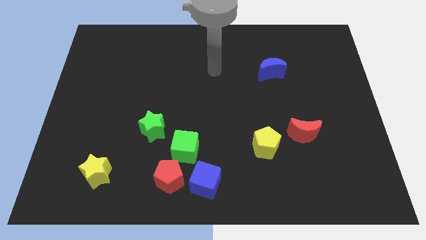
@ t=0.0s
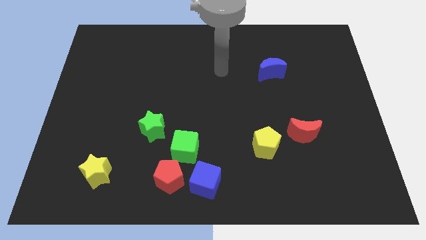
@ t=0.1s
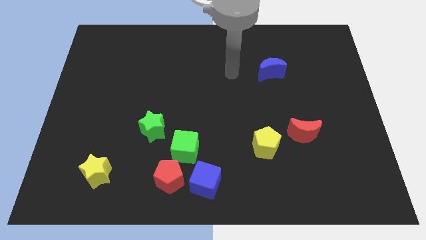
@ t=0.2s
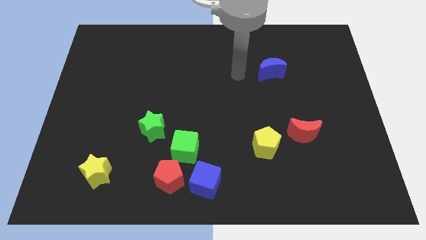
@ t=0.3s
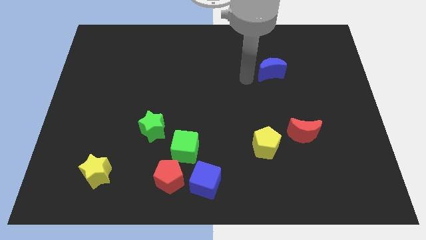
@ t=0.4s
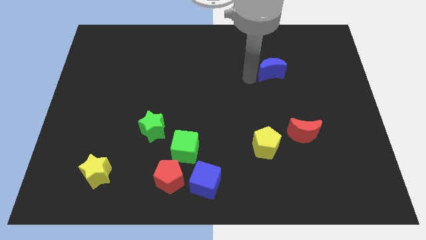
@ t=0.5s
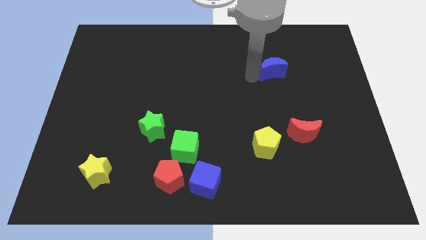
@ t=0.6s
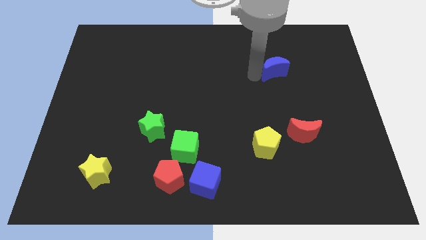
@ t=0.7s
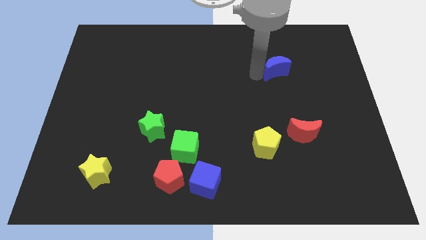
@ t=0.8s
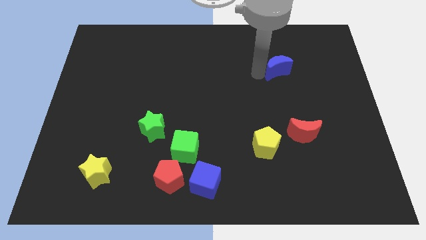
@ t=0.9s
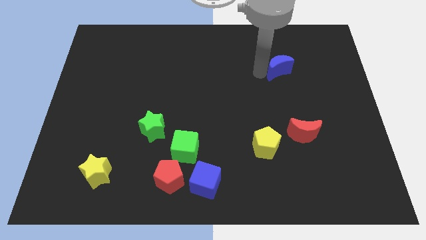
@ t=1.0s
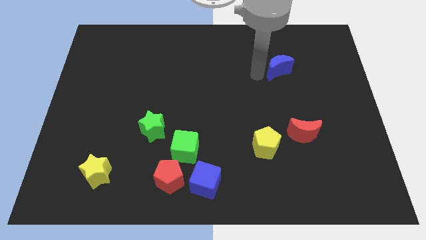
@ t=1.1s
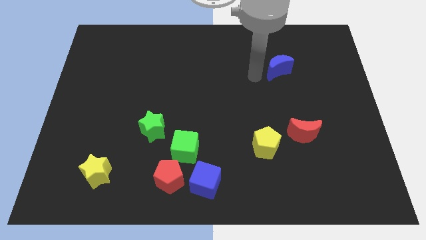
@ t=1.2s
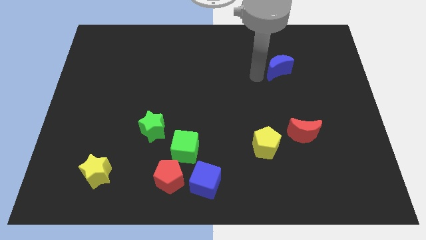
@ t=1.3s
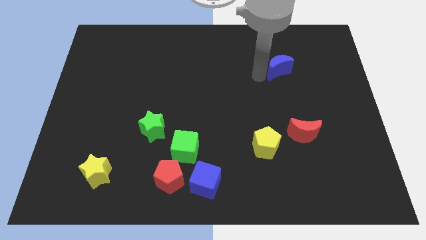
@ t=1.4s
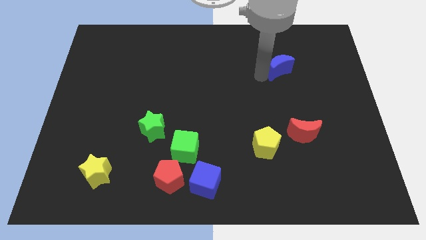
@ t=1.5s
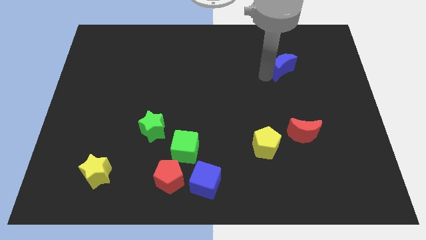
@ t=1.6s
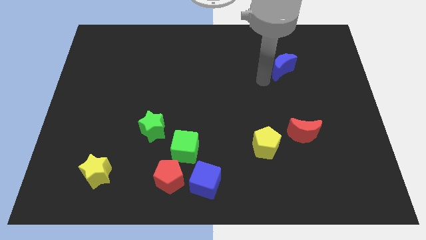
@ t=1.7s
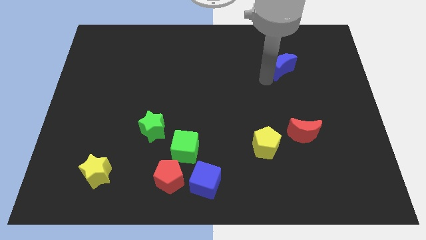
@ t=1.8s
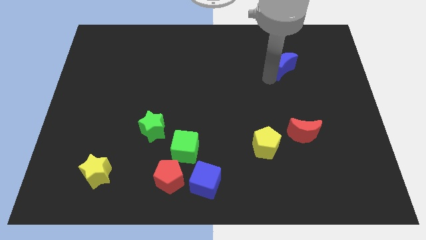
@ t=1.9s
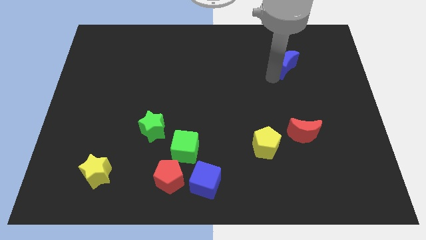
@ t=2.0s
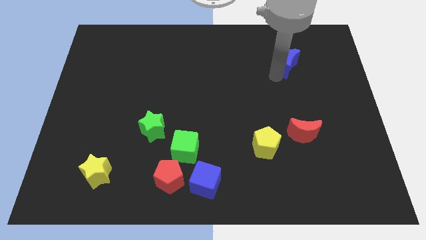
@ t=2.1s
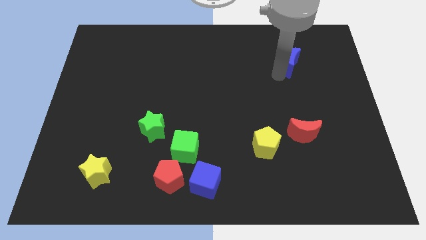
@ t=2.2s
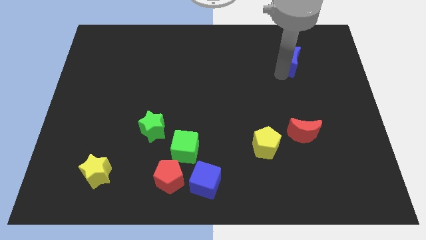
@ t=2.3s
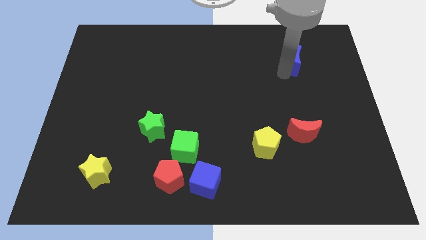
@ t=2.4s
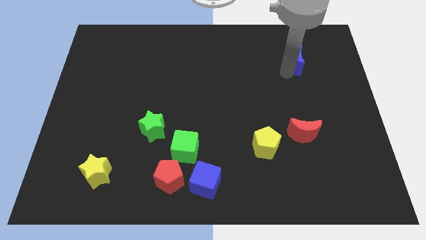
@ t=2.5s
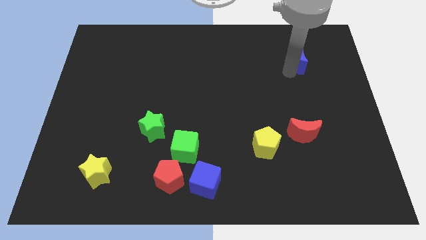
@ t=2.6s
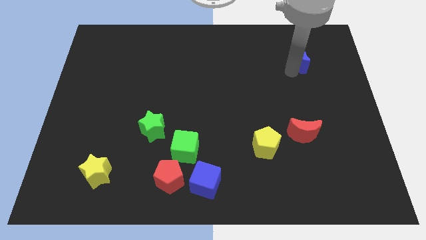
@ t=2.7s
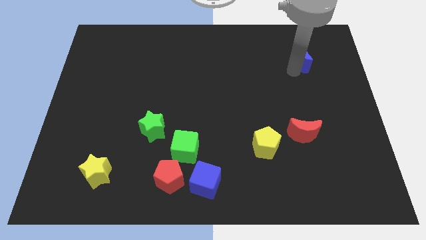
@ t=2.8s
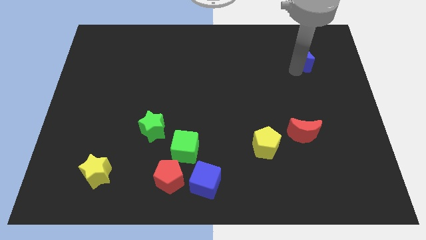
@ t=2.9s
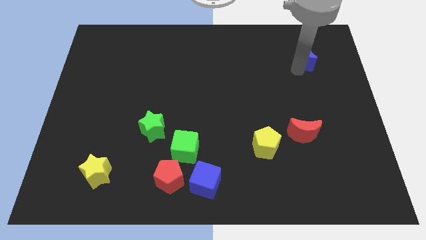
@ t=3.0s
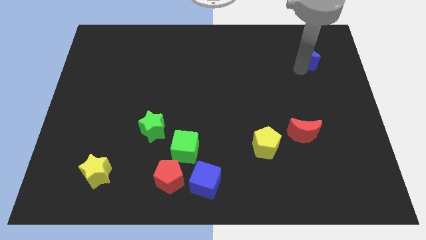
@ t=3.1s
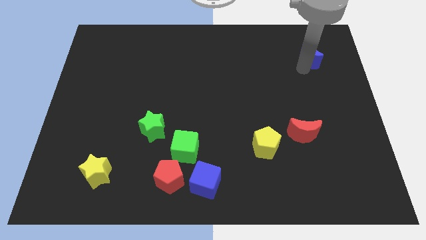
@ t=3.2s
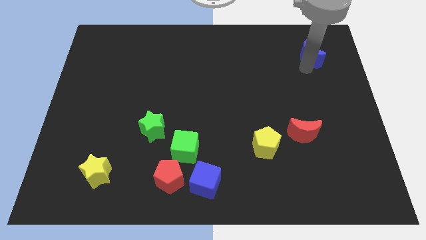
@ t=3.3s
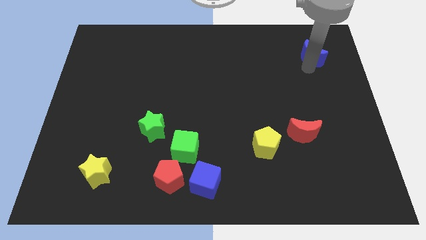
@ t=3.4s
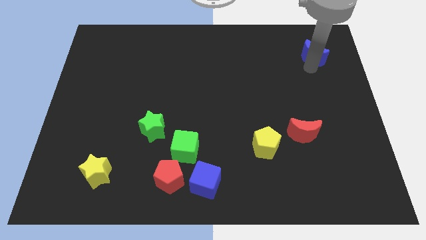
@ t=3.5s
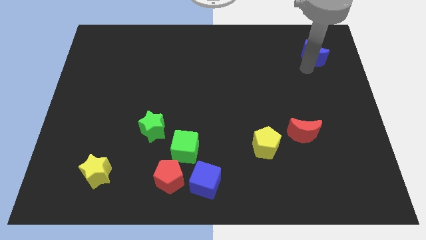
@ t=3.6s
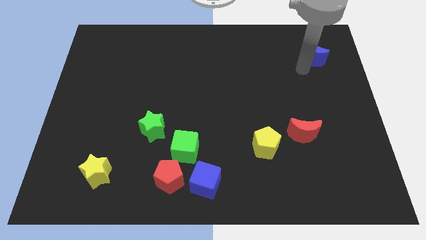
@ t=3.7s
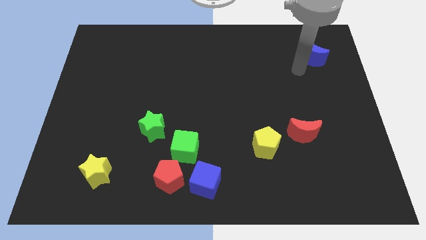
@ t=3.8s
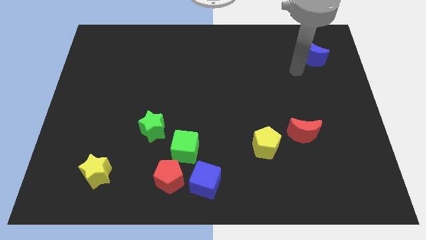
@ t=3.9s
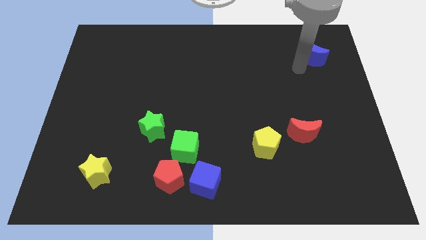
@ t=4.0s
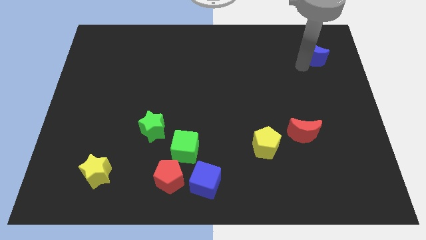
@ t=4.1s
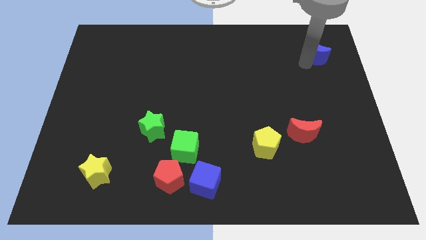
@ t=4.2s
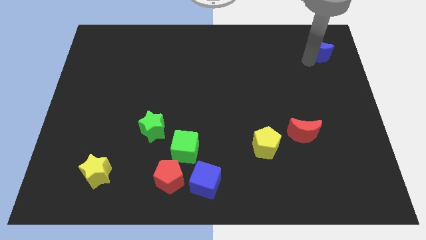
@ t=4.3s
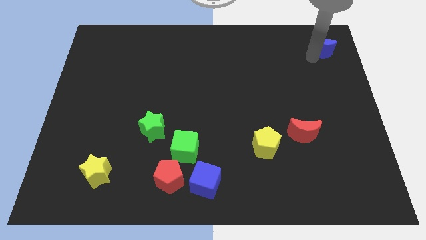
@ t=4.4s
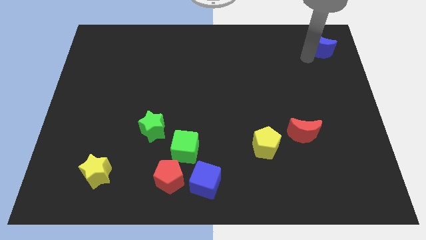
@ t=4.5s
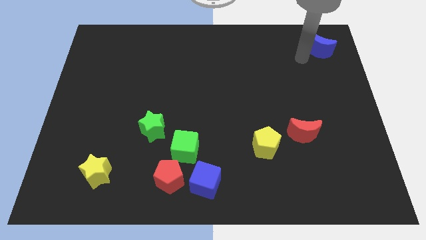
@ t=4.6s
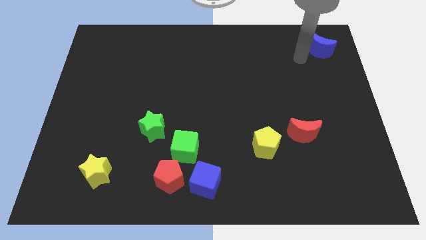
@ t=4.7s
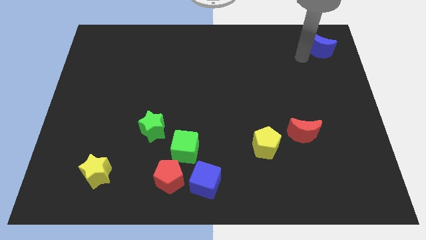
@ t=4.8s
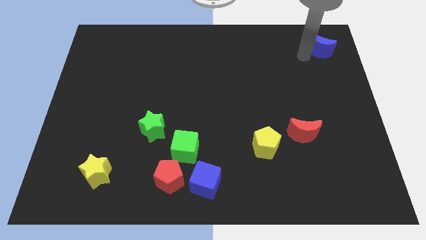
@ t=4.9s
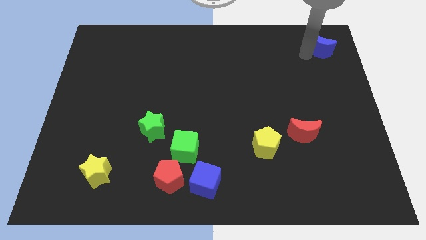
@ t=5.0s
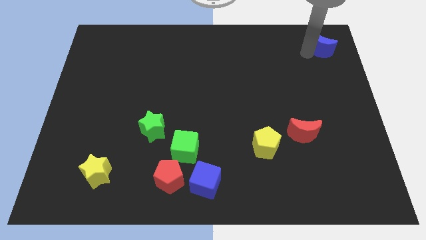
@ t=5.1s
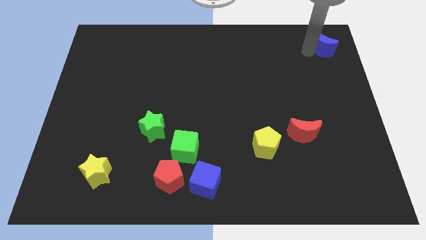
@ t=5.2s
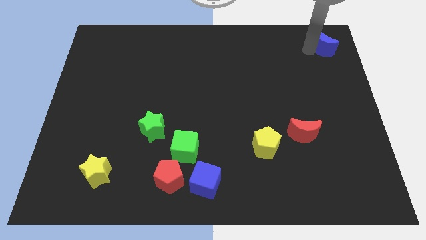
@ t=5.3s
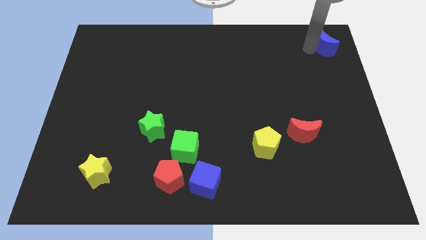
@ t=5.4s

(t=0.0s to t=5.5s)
move the blue moon to the upper right corner

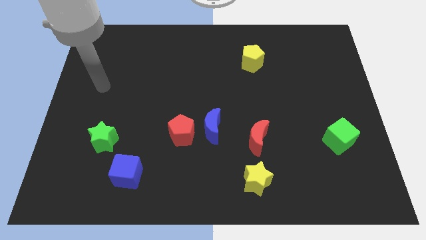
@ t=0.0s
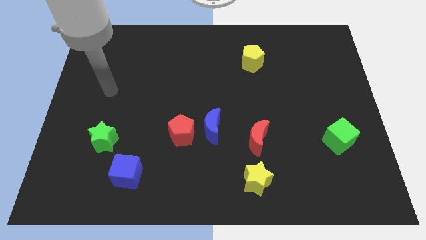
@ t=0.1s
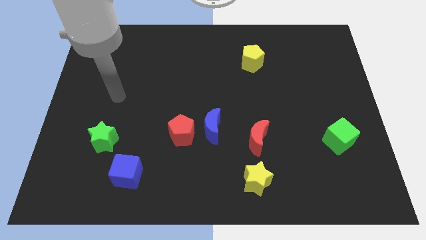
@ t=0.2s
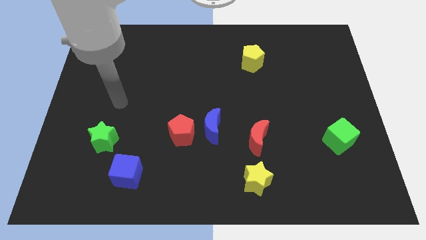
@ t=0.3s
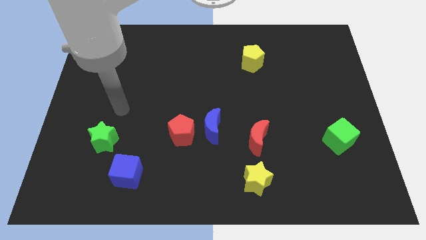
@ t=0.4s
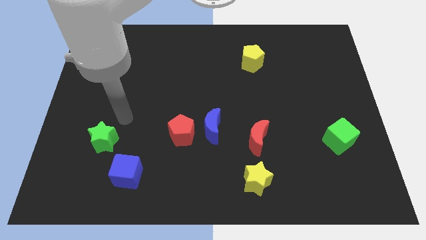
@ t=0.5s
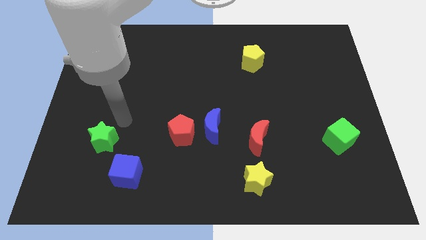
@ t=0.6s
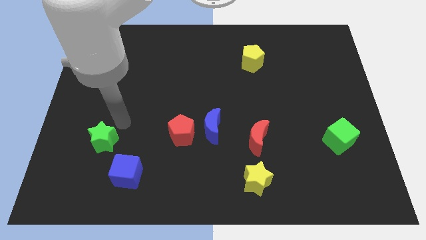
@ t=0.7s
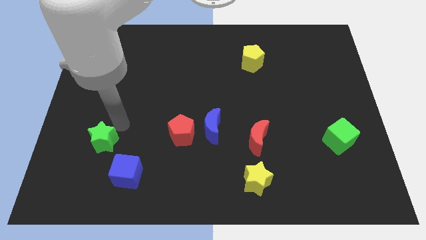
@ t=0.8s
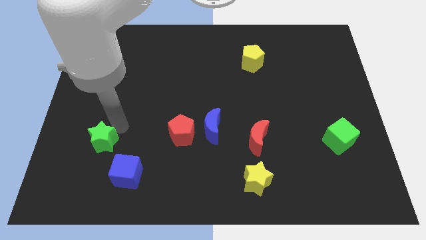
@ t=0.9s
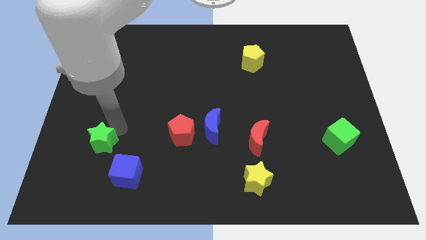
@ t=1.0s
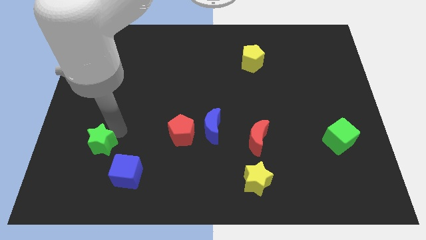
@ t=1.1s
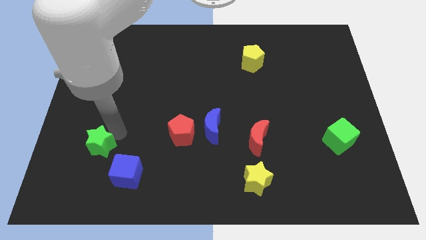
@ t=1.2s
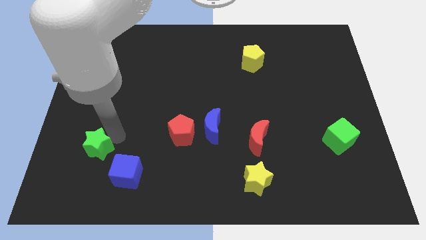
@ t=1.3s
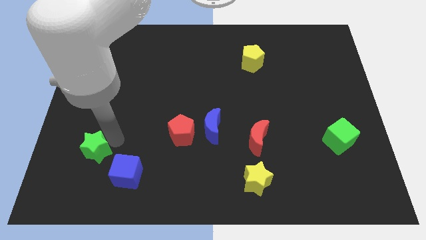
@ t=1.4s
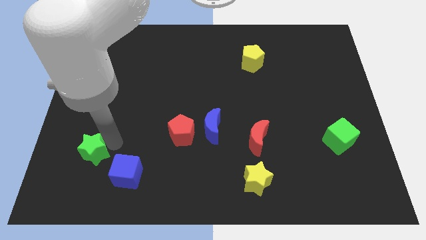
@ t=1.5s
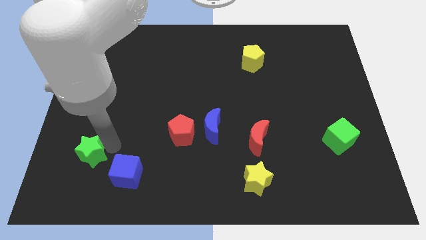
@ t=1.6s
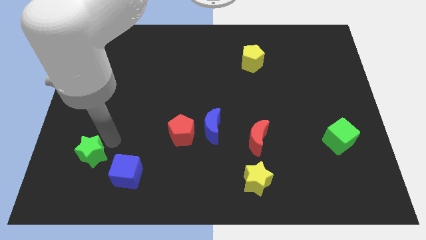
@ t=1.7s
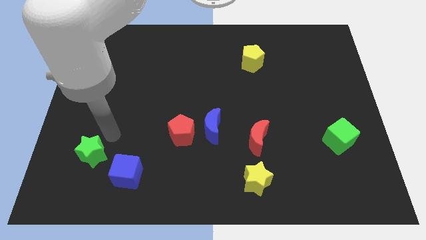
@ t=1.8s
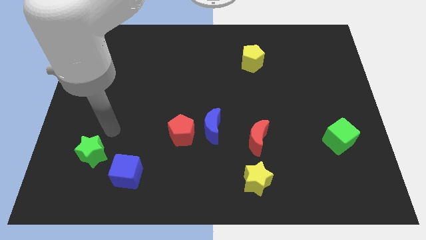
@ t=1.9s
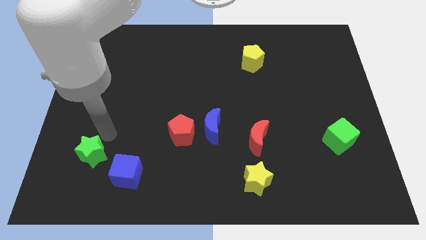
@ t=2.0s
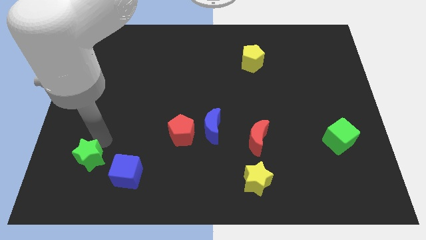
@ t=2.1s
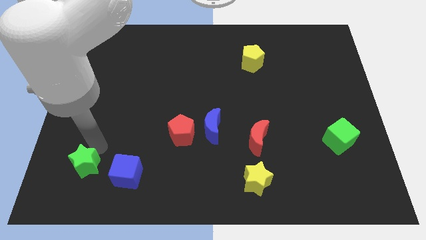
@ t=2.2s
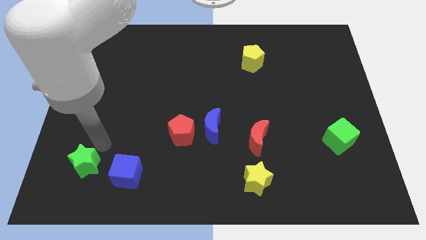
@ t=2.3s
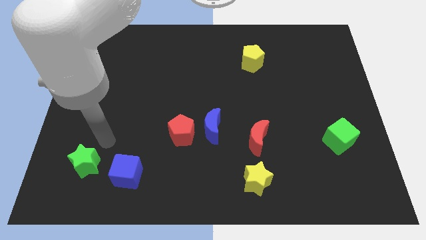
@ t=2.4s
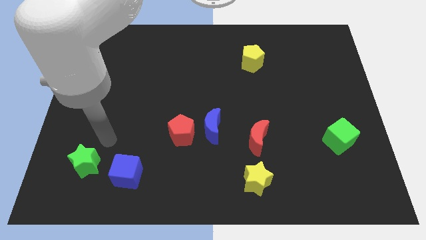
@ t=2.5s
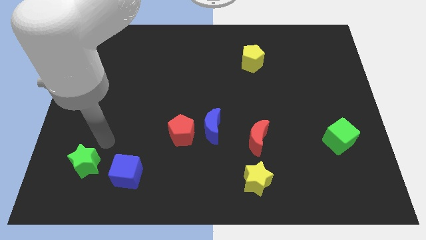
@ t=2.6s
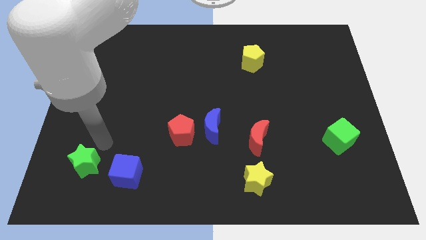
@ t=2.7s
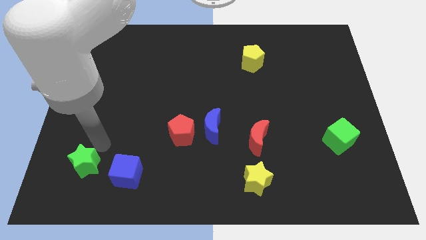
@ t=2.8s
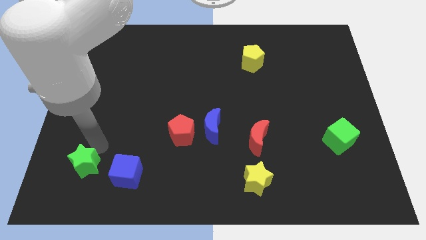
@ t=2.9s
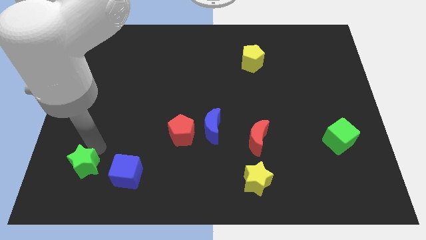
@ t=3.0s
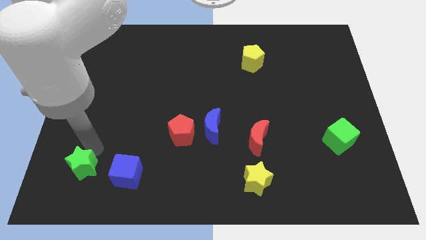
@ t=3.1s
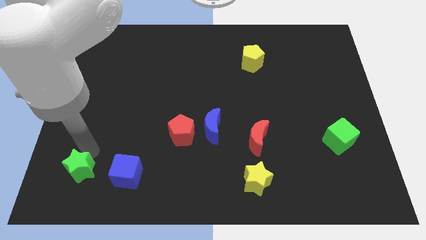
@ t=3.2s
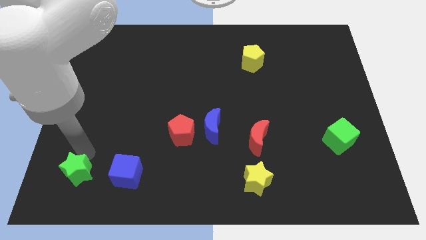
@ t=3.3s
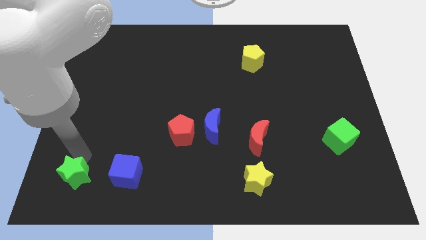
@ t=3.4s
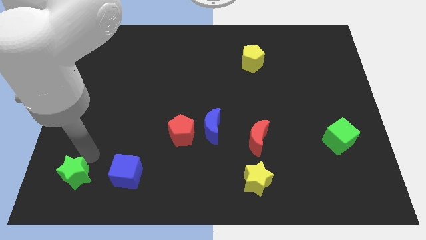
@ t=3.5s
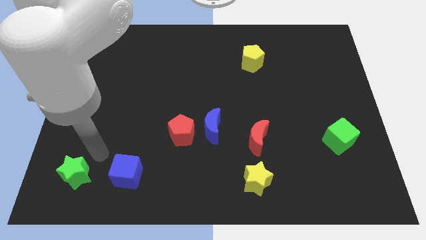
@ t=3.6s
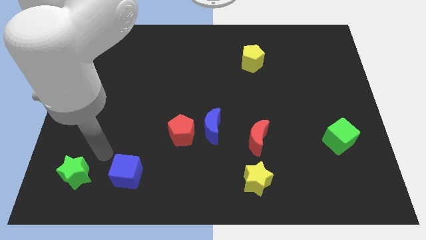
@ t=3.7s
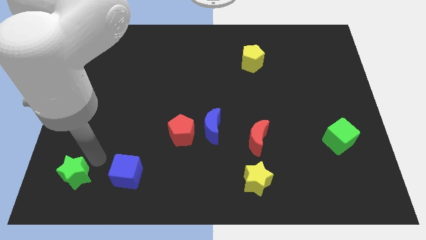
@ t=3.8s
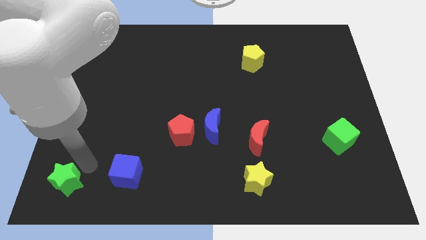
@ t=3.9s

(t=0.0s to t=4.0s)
slide the green star to the lower left corner
